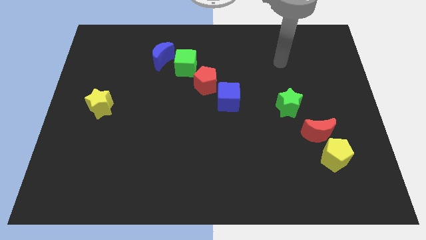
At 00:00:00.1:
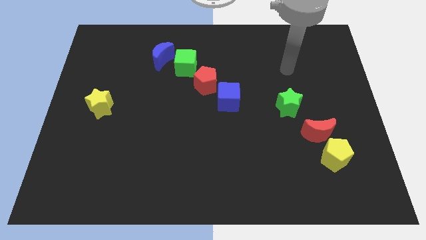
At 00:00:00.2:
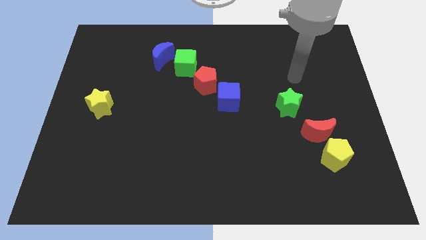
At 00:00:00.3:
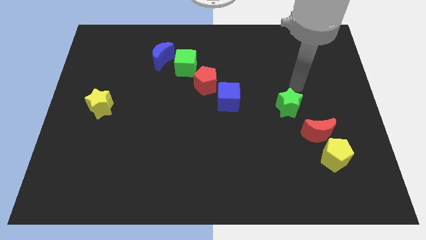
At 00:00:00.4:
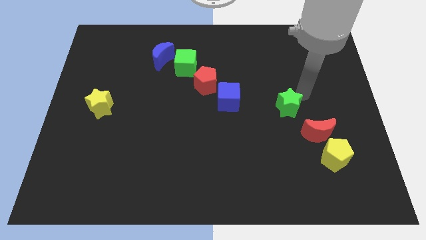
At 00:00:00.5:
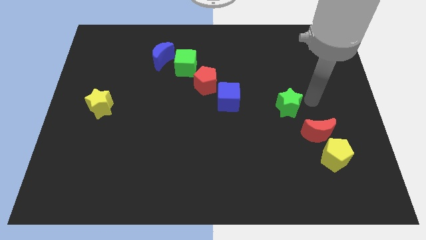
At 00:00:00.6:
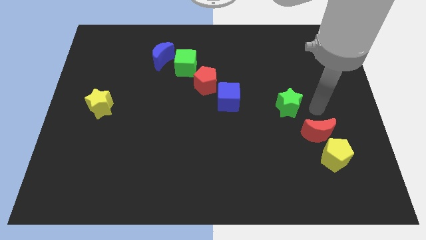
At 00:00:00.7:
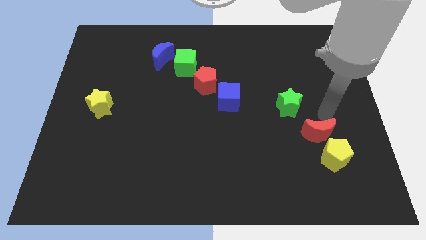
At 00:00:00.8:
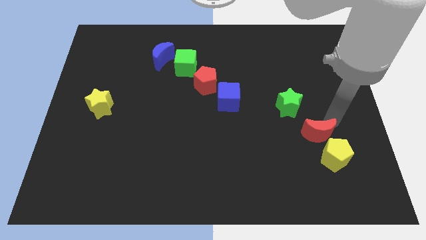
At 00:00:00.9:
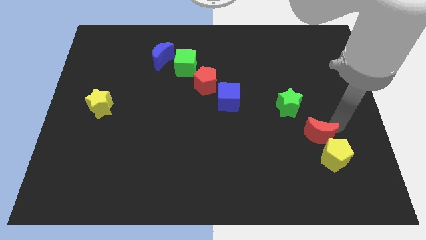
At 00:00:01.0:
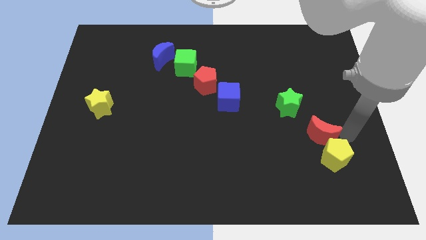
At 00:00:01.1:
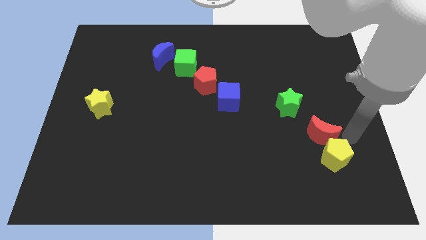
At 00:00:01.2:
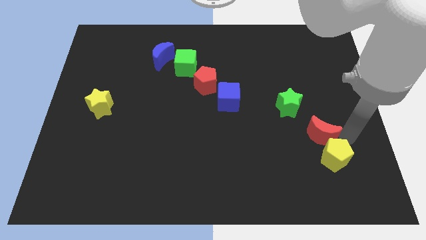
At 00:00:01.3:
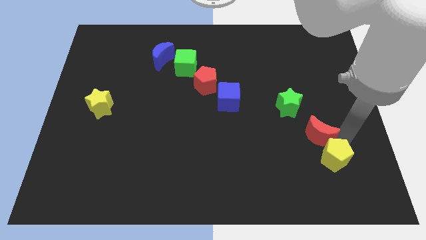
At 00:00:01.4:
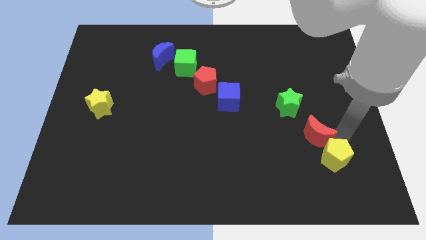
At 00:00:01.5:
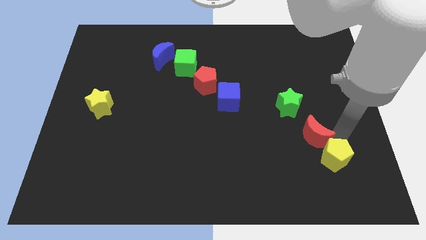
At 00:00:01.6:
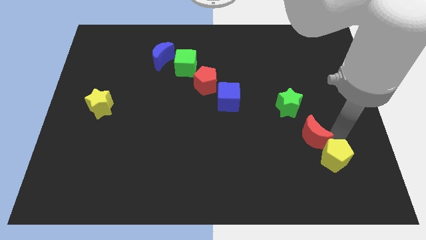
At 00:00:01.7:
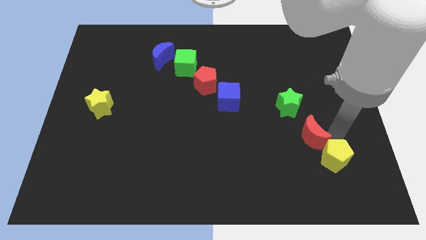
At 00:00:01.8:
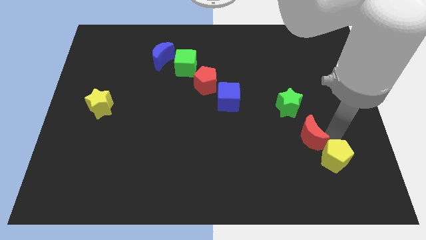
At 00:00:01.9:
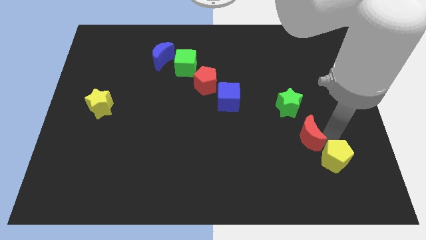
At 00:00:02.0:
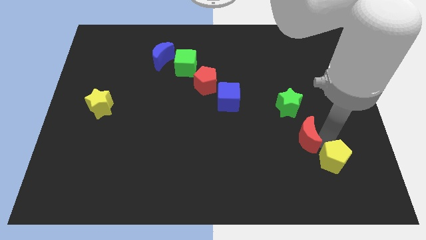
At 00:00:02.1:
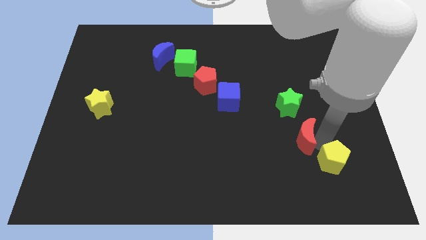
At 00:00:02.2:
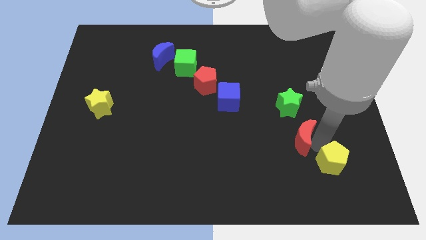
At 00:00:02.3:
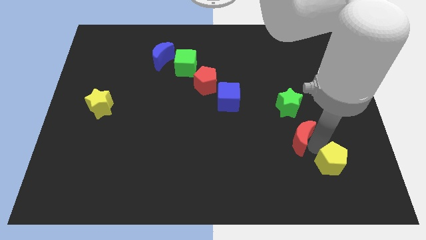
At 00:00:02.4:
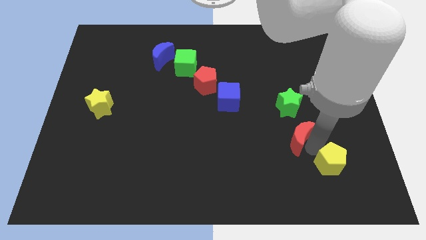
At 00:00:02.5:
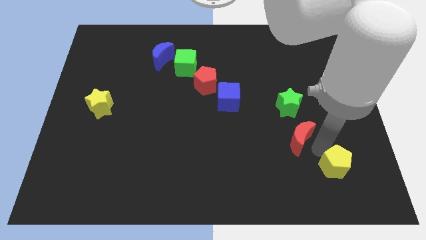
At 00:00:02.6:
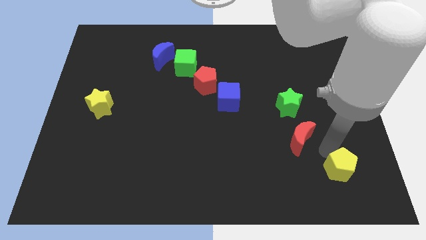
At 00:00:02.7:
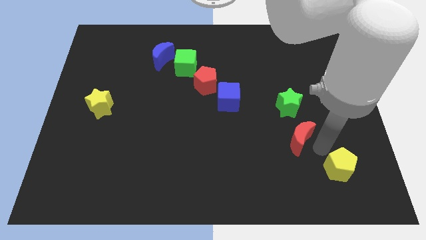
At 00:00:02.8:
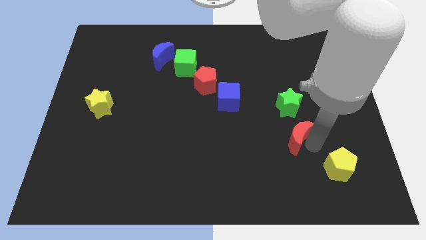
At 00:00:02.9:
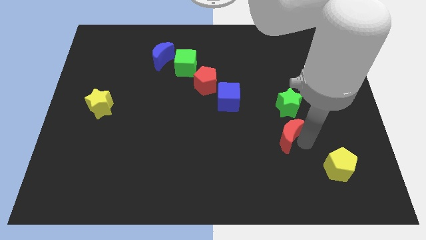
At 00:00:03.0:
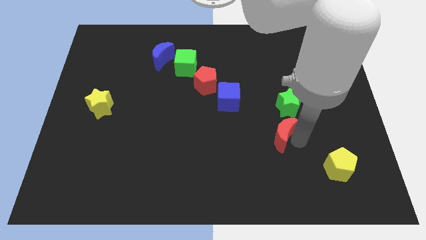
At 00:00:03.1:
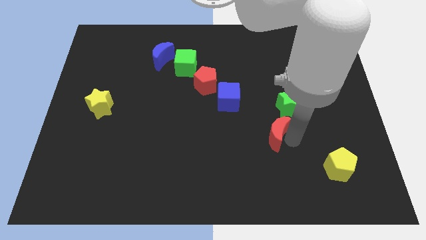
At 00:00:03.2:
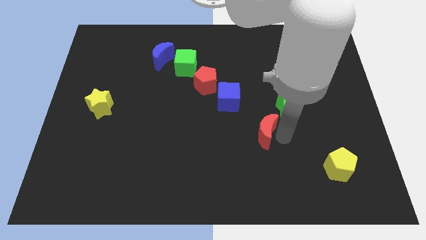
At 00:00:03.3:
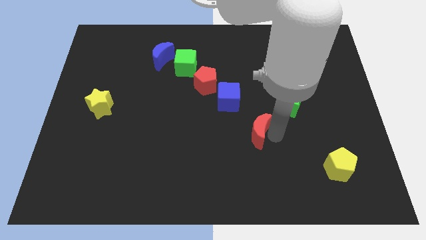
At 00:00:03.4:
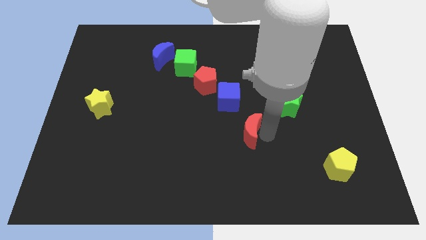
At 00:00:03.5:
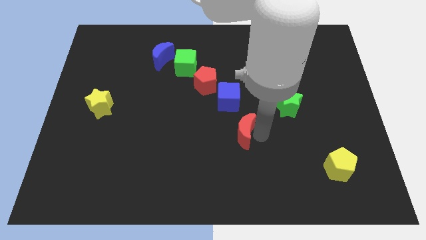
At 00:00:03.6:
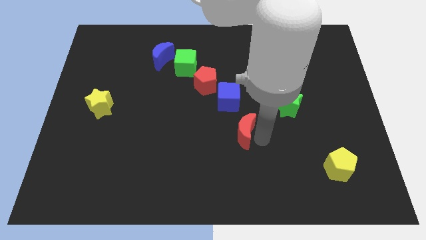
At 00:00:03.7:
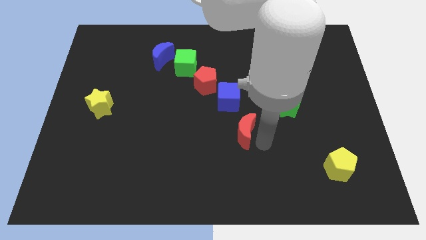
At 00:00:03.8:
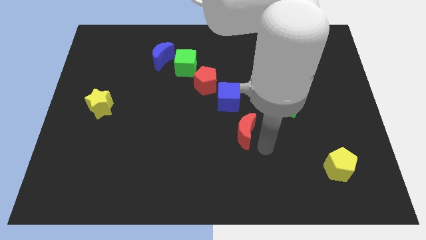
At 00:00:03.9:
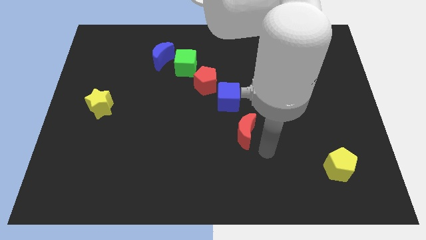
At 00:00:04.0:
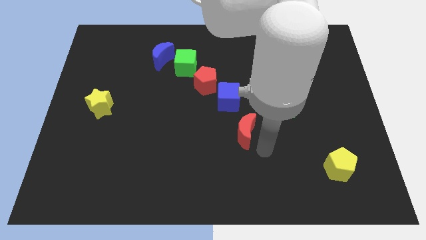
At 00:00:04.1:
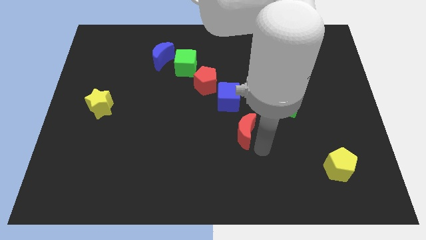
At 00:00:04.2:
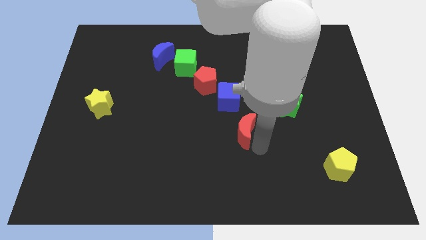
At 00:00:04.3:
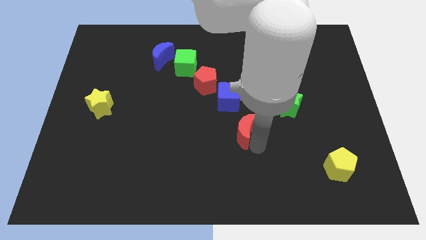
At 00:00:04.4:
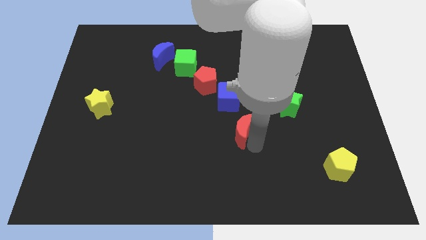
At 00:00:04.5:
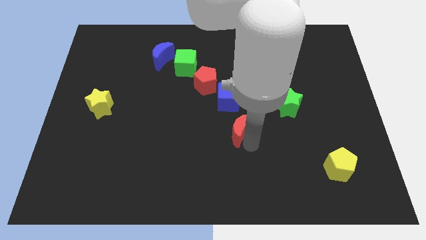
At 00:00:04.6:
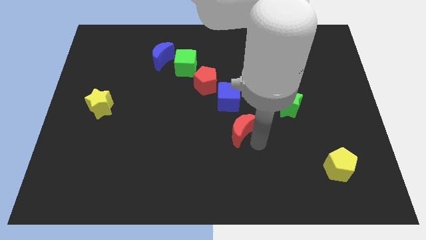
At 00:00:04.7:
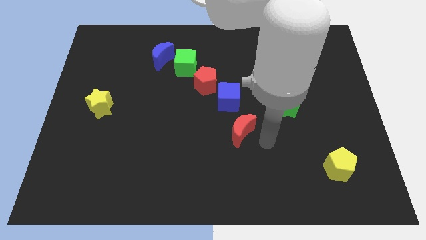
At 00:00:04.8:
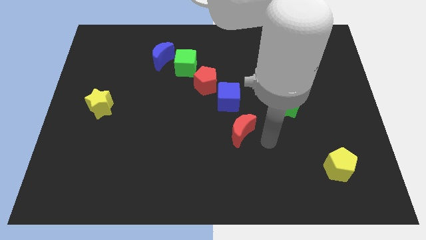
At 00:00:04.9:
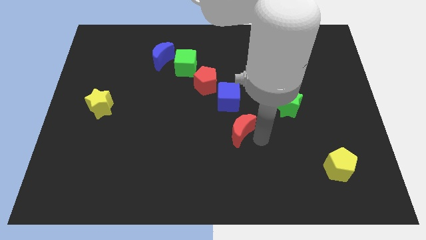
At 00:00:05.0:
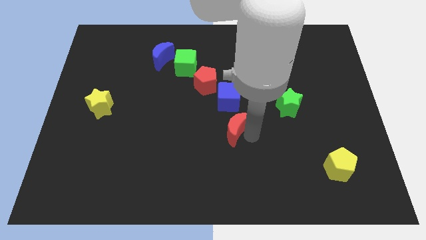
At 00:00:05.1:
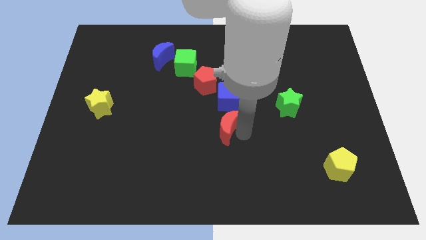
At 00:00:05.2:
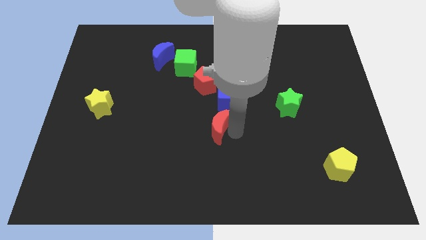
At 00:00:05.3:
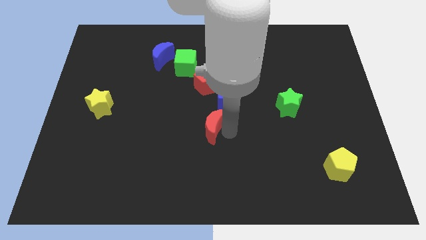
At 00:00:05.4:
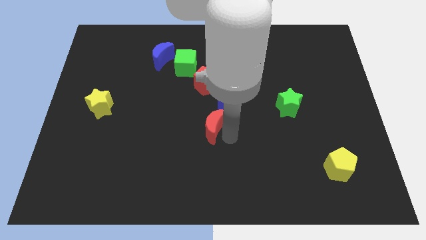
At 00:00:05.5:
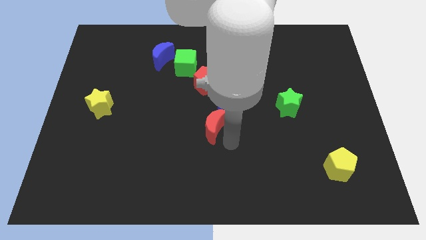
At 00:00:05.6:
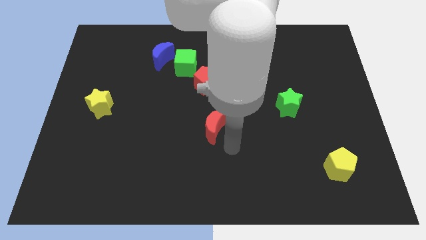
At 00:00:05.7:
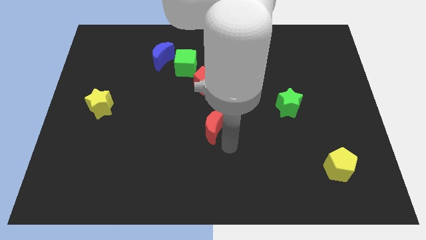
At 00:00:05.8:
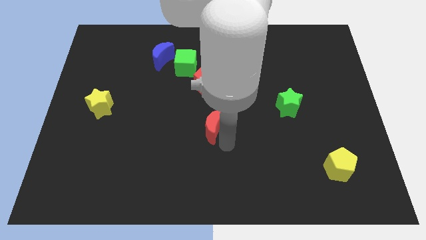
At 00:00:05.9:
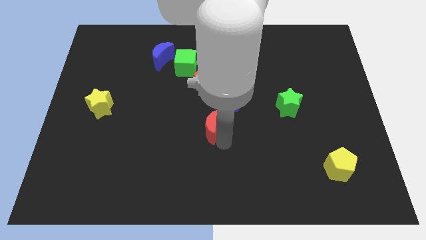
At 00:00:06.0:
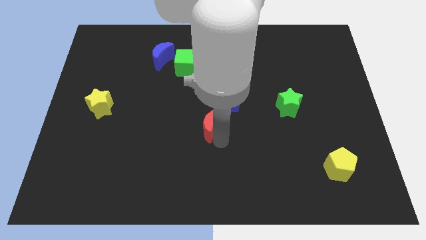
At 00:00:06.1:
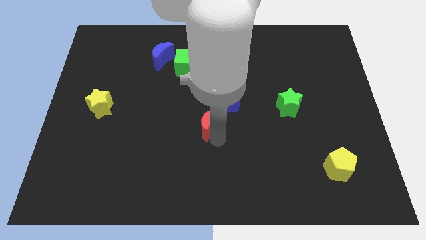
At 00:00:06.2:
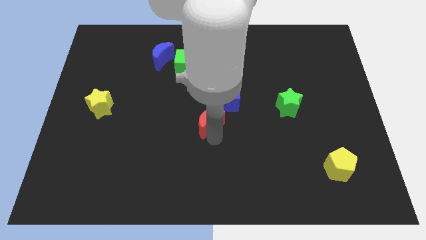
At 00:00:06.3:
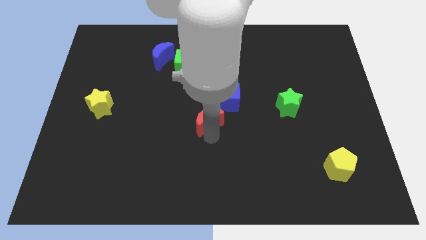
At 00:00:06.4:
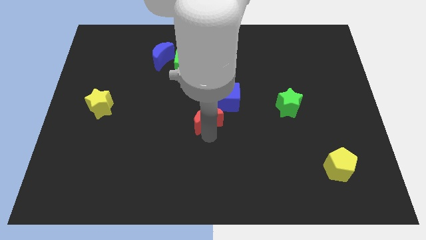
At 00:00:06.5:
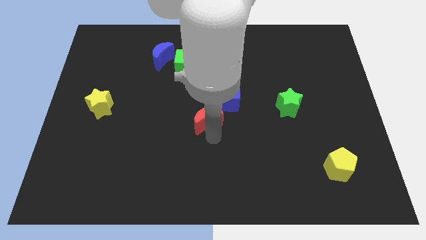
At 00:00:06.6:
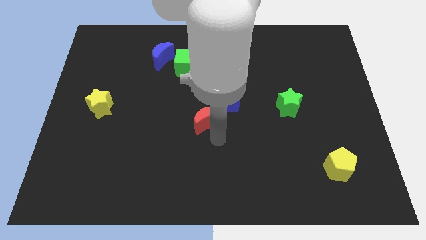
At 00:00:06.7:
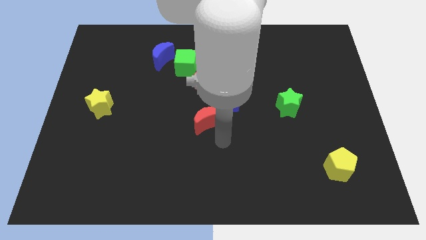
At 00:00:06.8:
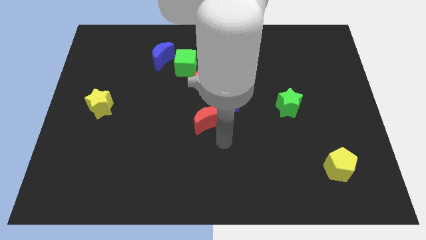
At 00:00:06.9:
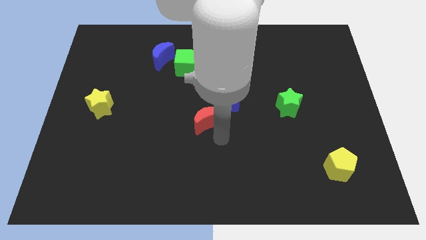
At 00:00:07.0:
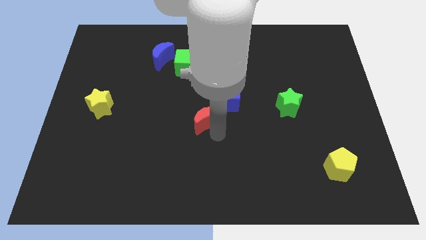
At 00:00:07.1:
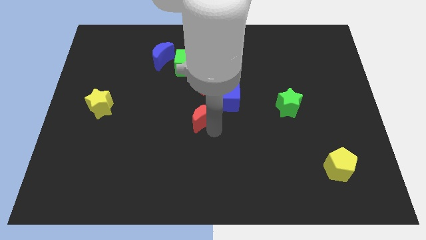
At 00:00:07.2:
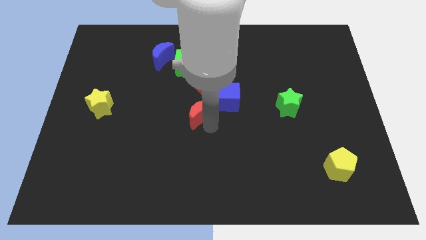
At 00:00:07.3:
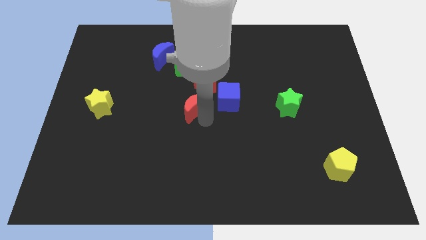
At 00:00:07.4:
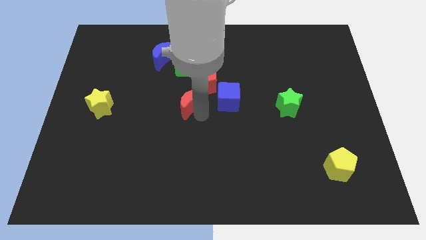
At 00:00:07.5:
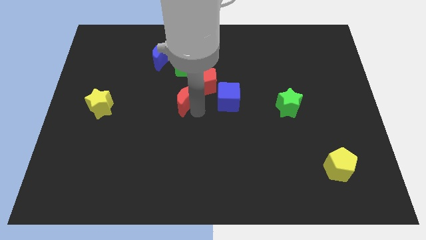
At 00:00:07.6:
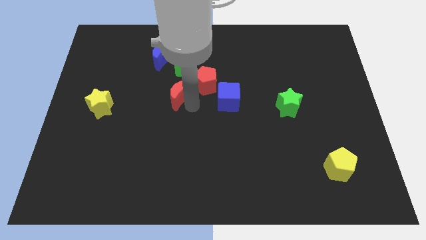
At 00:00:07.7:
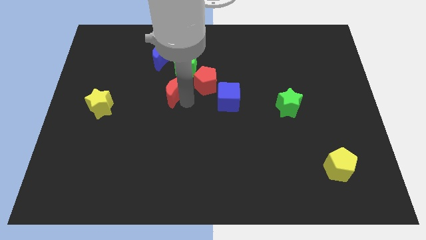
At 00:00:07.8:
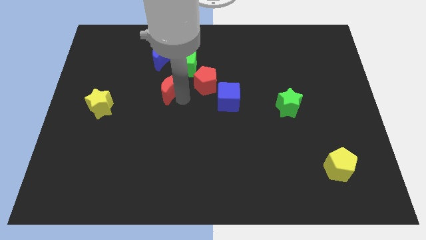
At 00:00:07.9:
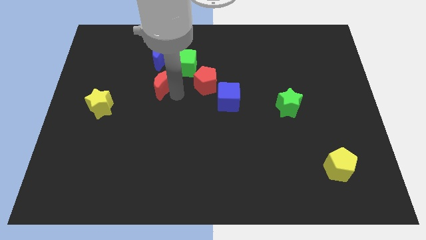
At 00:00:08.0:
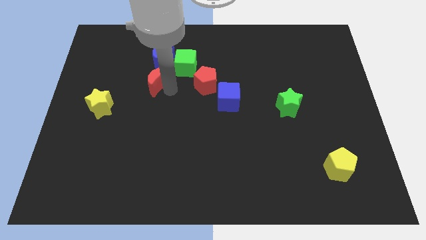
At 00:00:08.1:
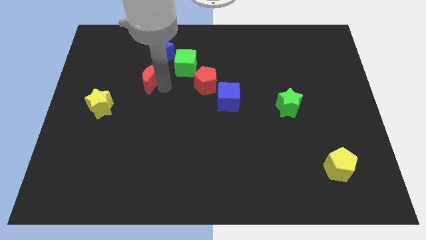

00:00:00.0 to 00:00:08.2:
push the red moon diagonally down and to the left of the blue moon
